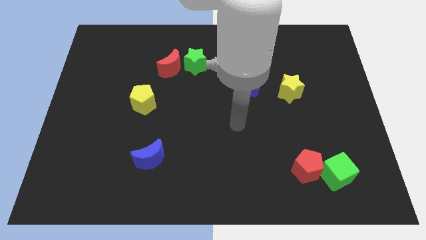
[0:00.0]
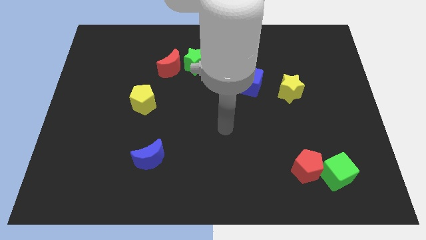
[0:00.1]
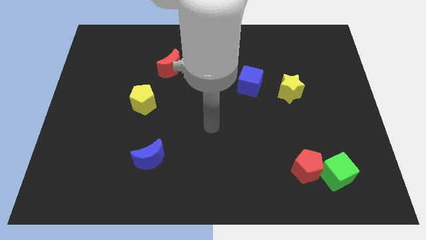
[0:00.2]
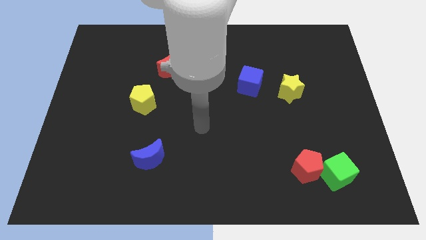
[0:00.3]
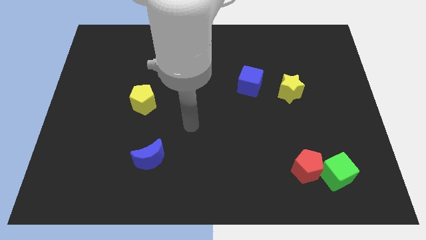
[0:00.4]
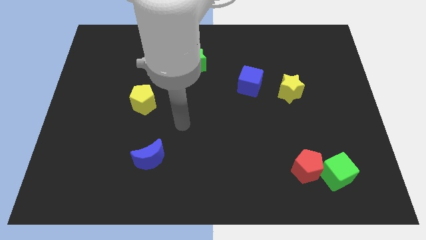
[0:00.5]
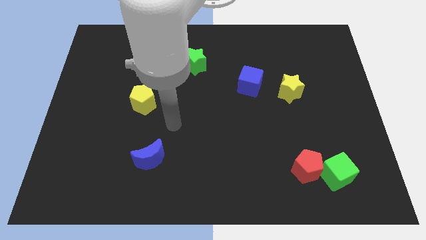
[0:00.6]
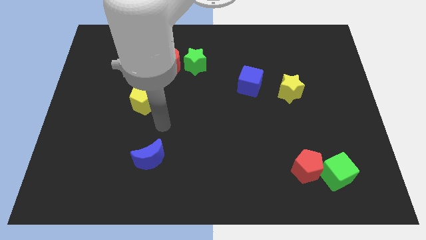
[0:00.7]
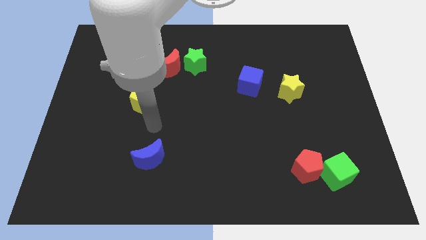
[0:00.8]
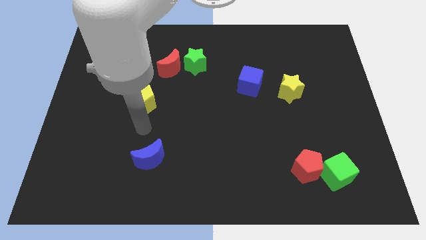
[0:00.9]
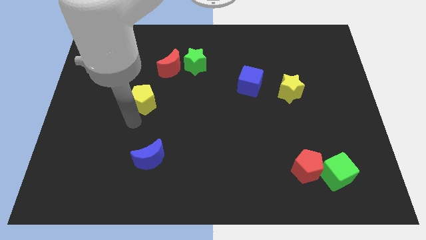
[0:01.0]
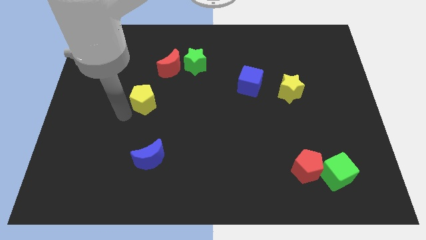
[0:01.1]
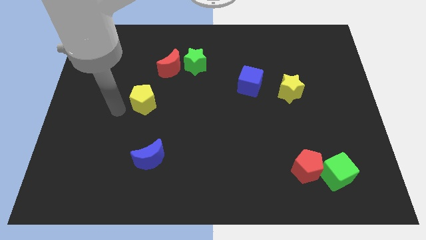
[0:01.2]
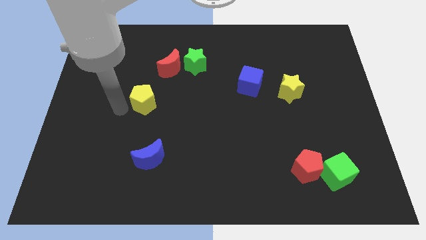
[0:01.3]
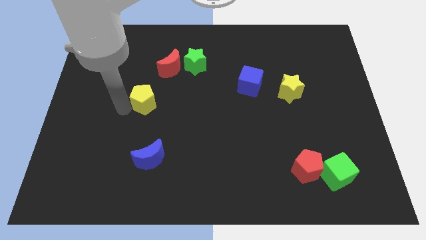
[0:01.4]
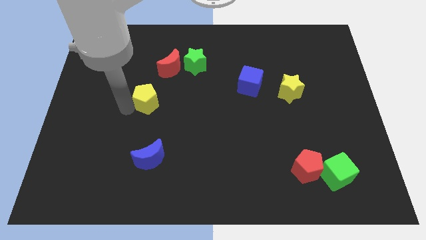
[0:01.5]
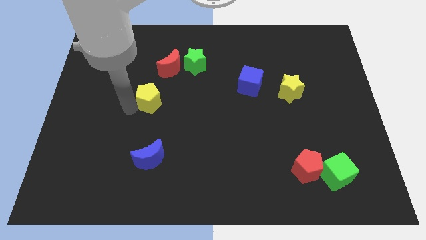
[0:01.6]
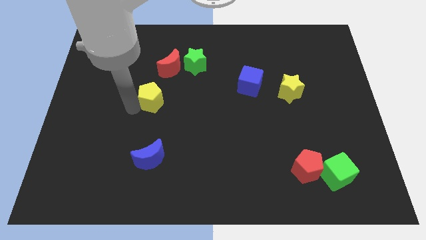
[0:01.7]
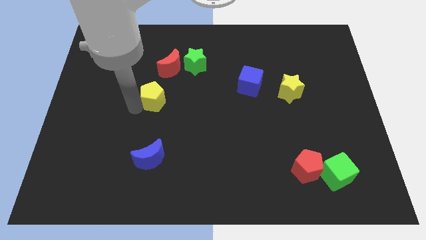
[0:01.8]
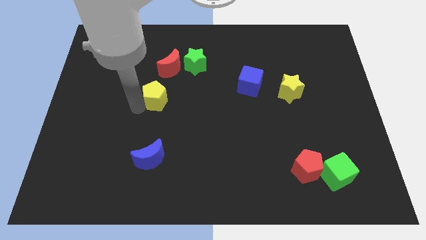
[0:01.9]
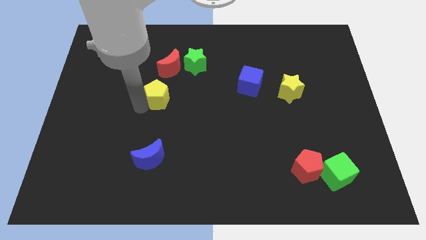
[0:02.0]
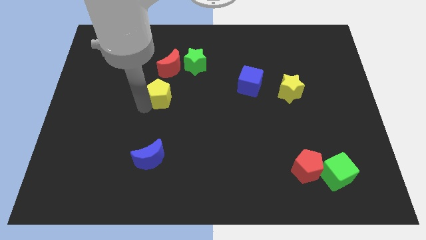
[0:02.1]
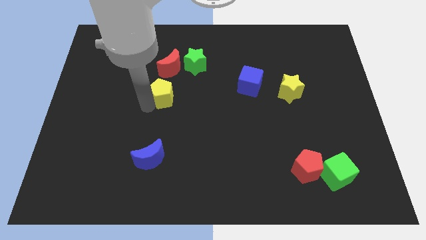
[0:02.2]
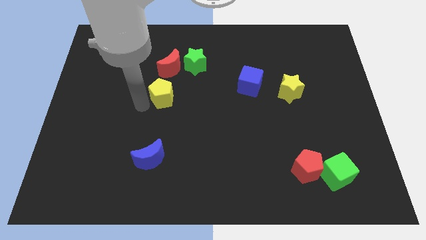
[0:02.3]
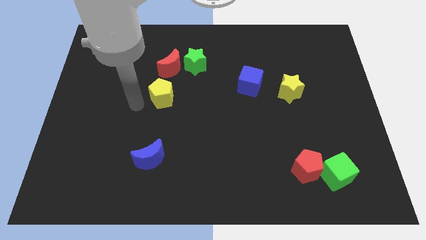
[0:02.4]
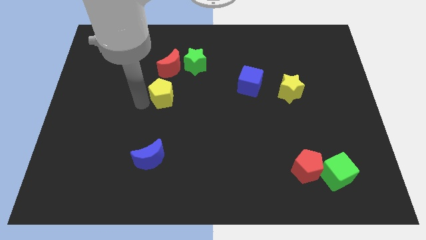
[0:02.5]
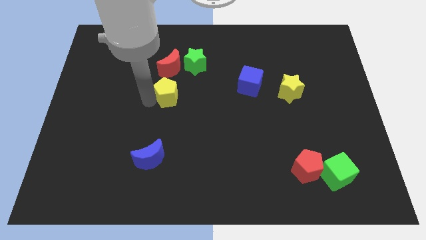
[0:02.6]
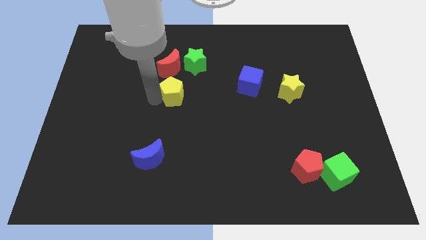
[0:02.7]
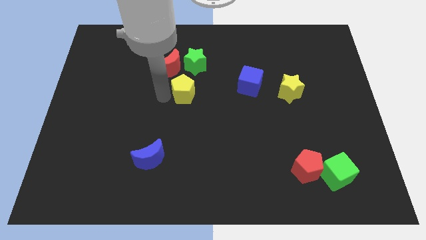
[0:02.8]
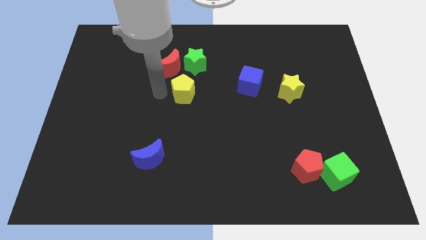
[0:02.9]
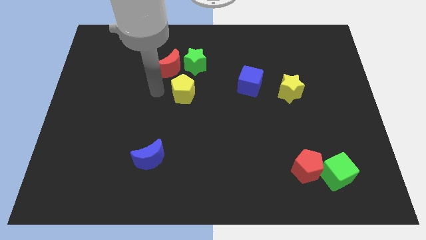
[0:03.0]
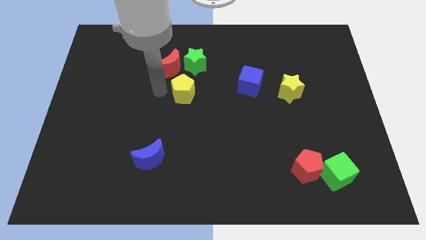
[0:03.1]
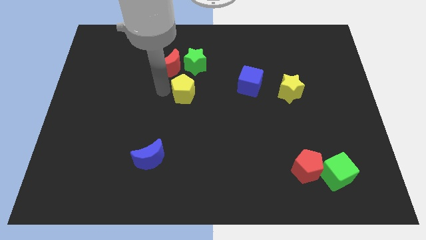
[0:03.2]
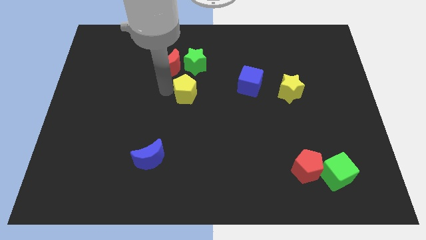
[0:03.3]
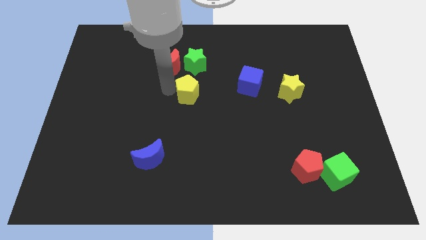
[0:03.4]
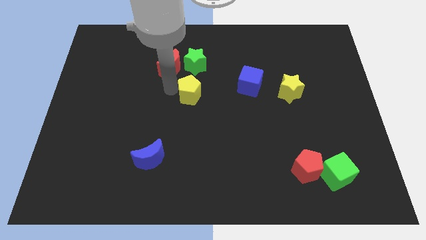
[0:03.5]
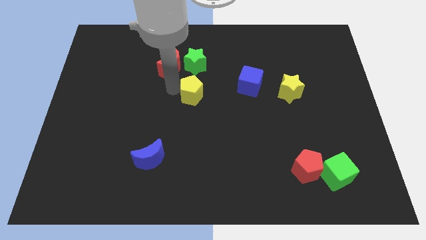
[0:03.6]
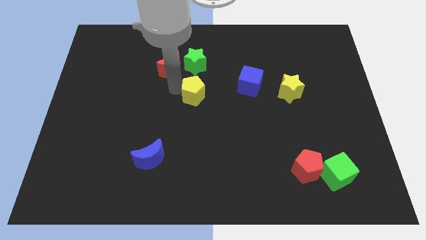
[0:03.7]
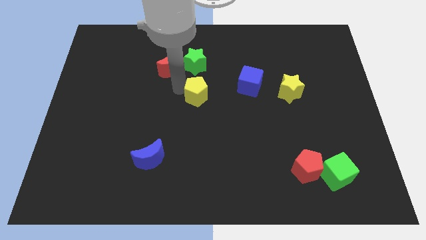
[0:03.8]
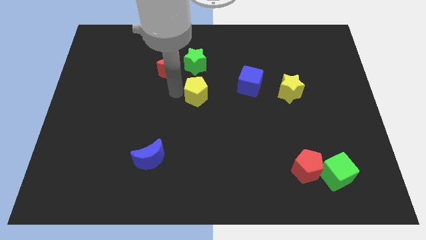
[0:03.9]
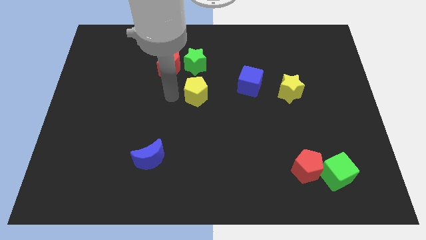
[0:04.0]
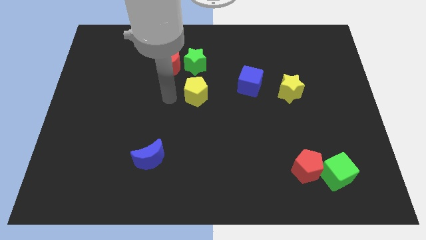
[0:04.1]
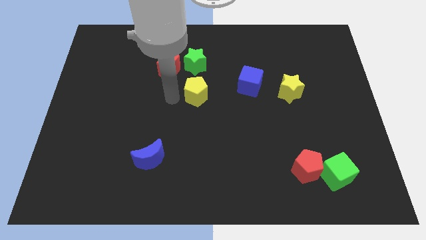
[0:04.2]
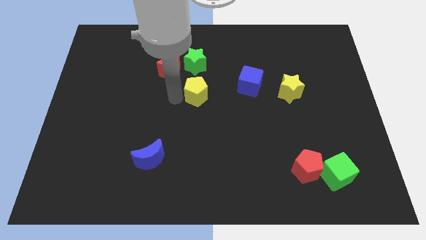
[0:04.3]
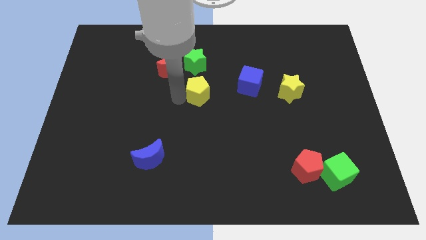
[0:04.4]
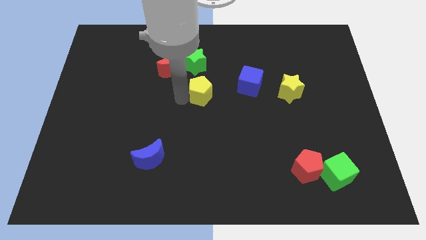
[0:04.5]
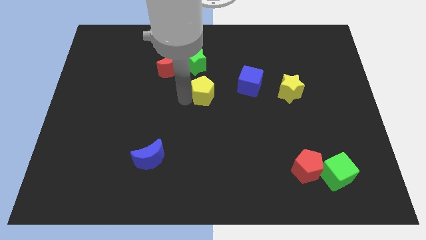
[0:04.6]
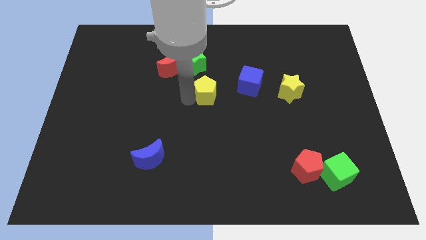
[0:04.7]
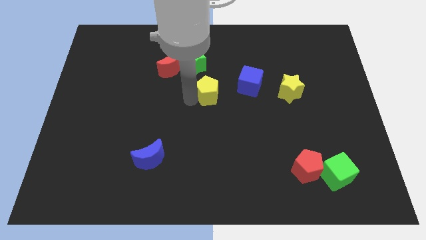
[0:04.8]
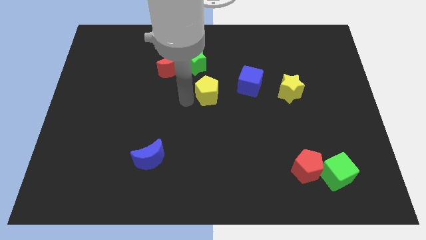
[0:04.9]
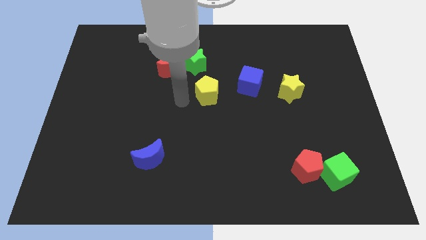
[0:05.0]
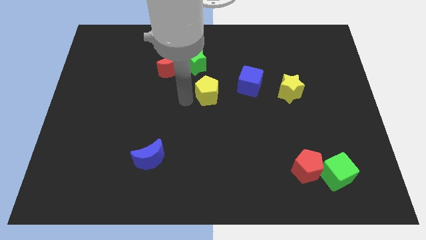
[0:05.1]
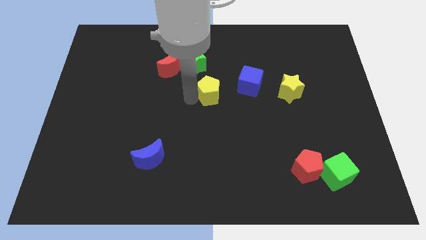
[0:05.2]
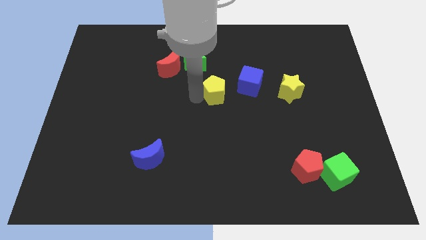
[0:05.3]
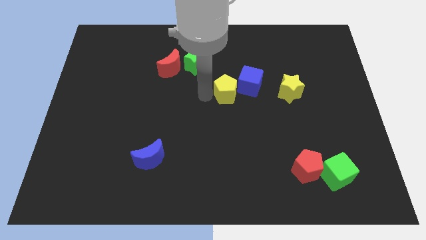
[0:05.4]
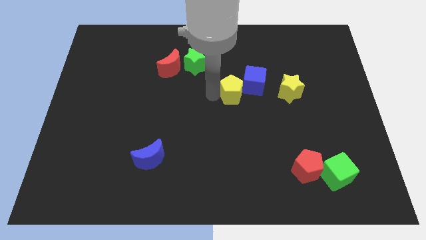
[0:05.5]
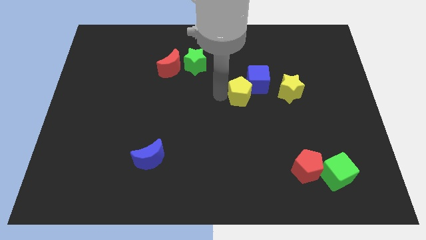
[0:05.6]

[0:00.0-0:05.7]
move the yellow pentagon next to the blue cube

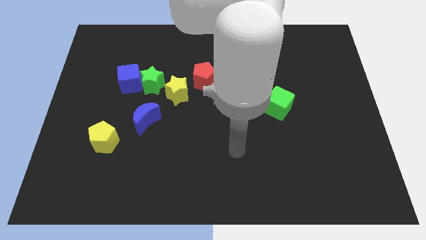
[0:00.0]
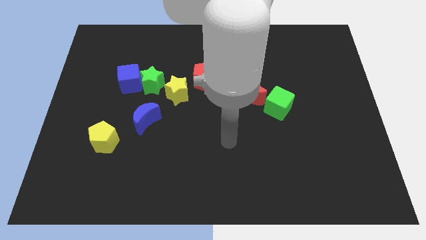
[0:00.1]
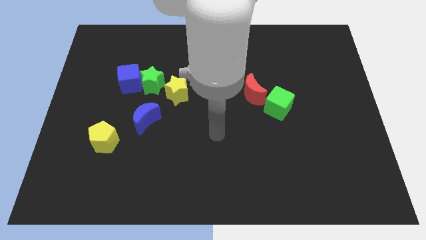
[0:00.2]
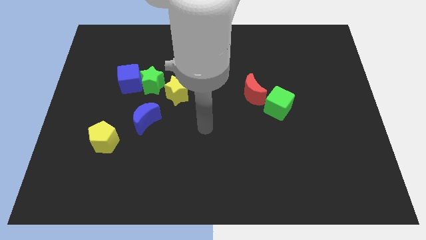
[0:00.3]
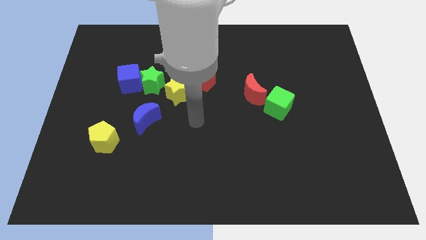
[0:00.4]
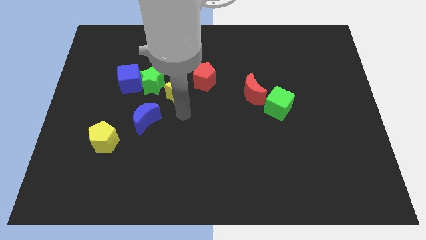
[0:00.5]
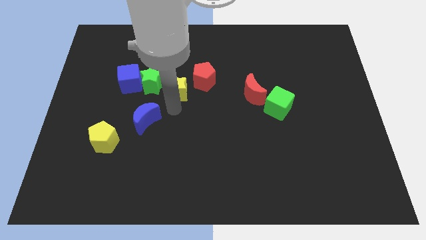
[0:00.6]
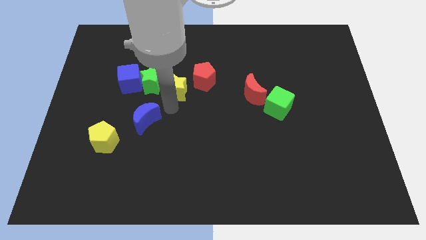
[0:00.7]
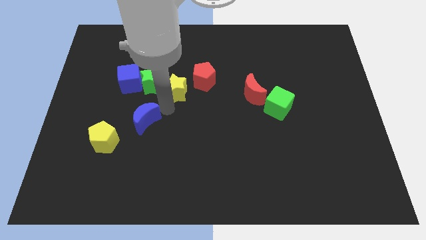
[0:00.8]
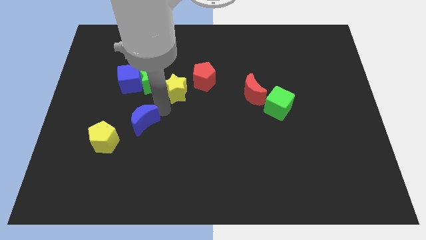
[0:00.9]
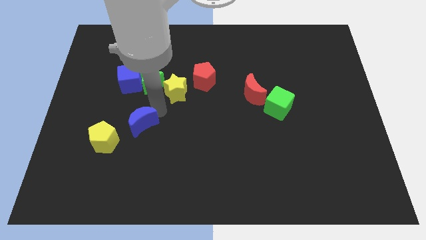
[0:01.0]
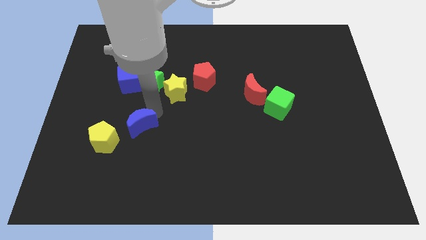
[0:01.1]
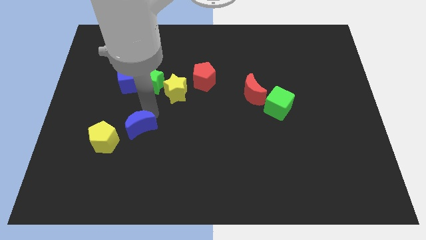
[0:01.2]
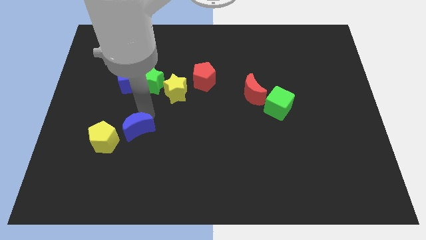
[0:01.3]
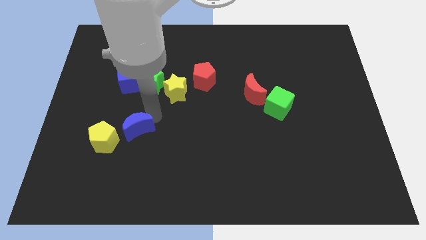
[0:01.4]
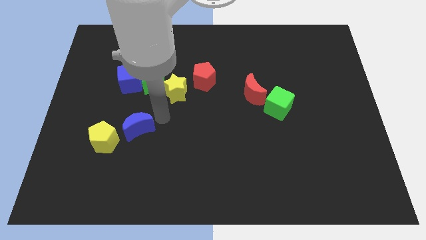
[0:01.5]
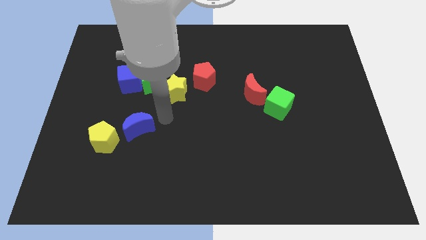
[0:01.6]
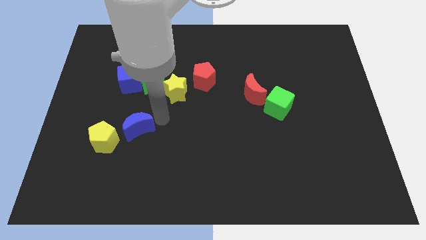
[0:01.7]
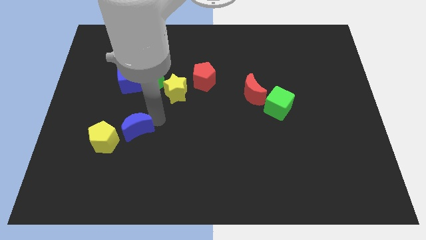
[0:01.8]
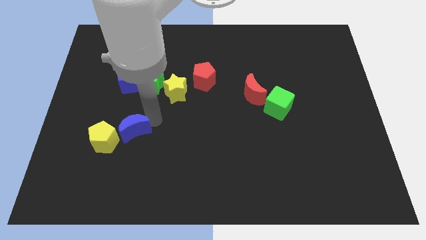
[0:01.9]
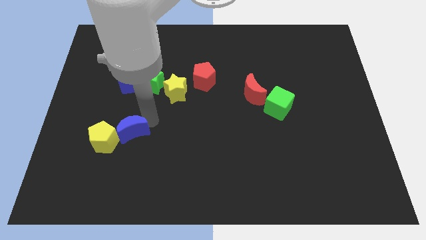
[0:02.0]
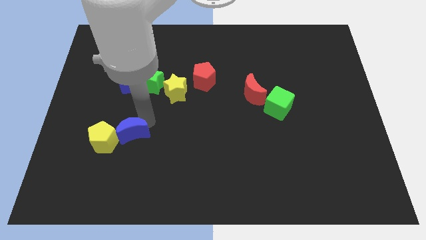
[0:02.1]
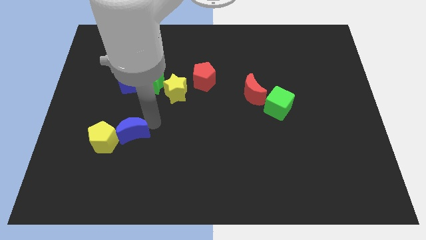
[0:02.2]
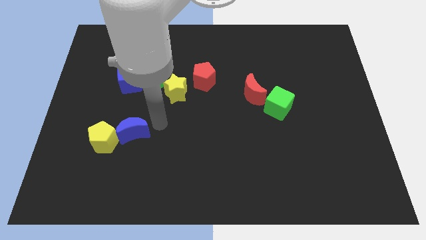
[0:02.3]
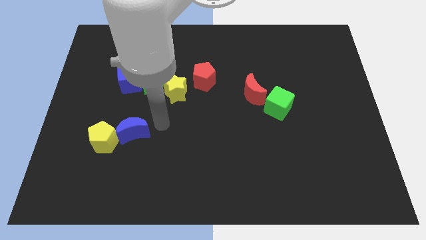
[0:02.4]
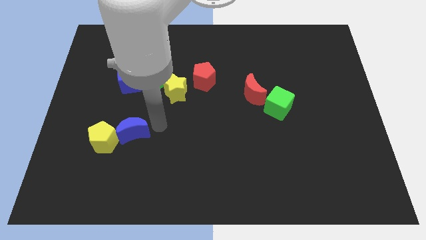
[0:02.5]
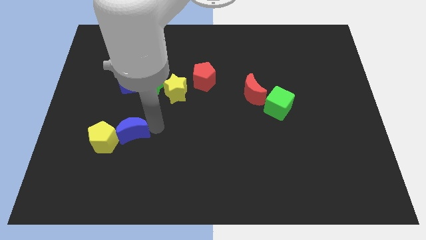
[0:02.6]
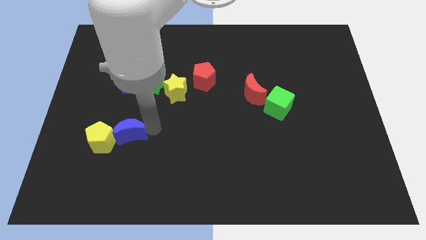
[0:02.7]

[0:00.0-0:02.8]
slide the blue moon next to the yellow pentagon
